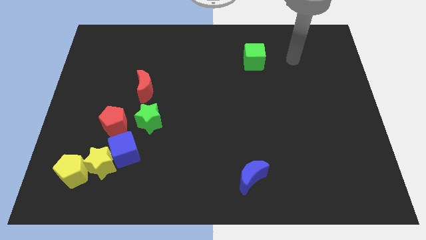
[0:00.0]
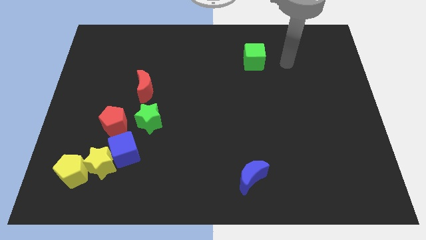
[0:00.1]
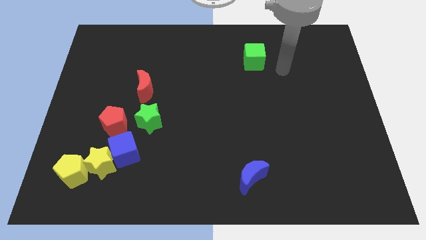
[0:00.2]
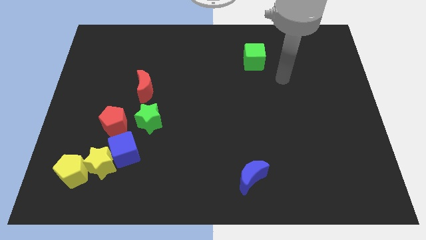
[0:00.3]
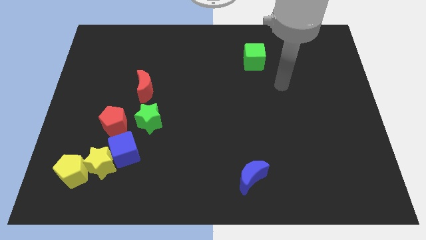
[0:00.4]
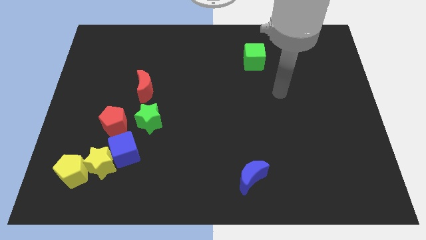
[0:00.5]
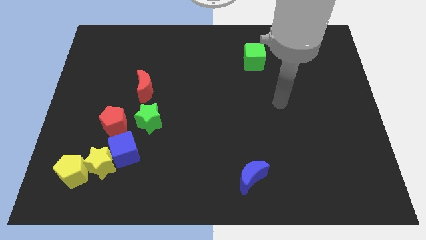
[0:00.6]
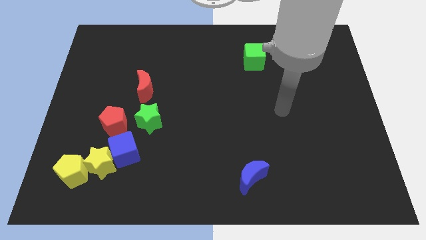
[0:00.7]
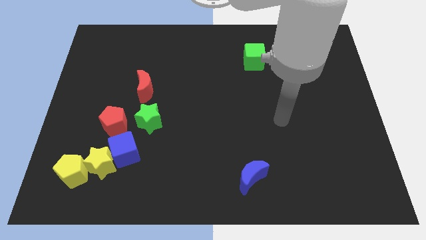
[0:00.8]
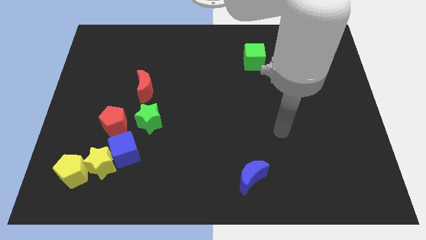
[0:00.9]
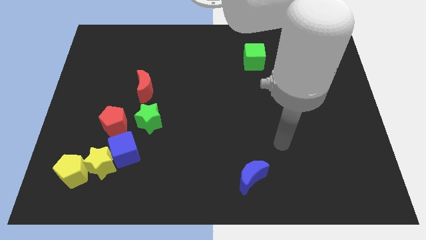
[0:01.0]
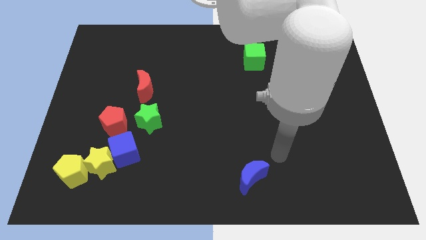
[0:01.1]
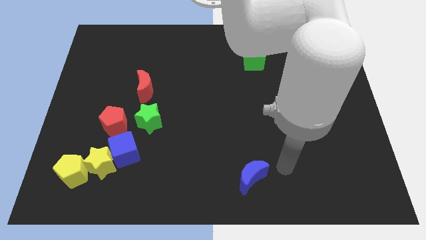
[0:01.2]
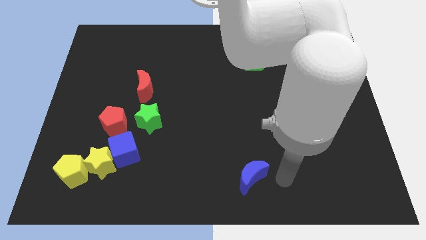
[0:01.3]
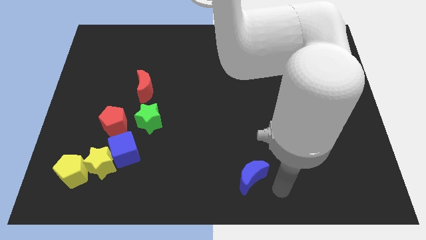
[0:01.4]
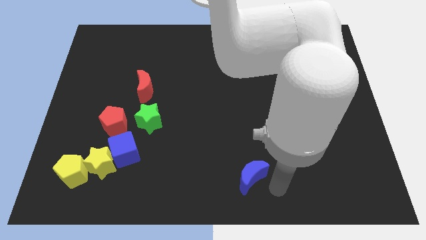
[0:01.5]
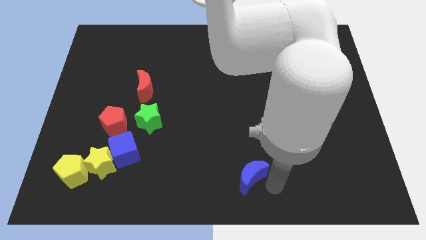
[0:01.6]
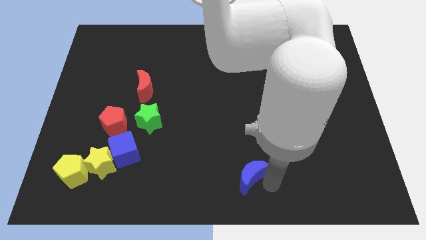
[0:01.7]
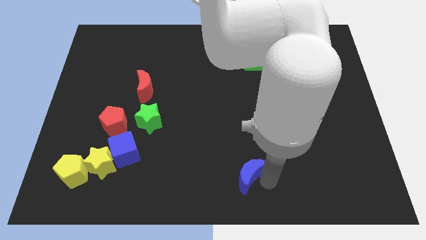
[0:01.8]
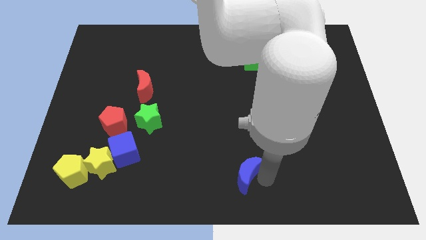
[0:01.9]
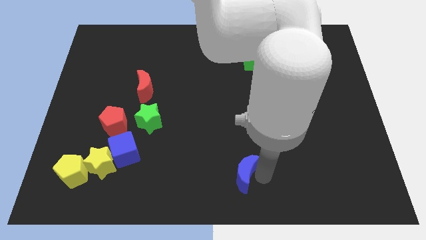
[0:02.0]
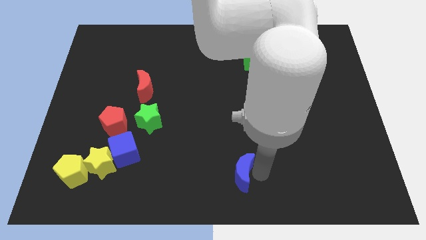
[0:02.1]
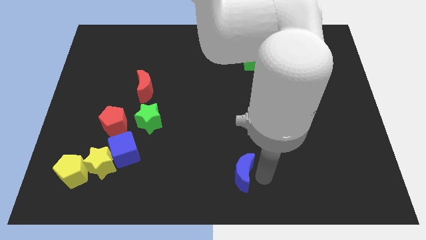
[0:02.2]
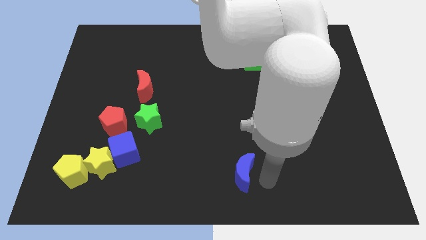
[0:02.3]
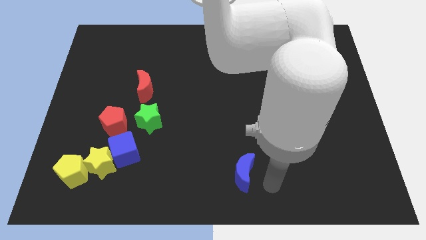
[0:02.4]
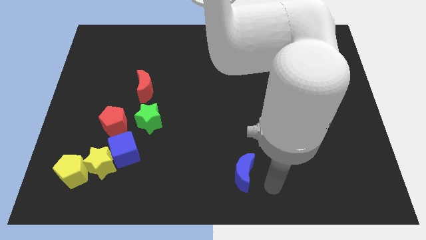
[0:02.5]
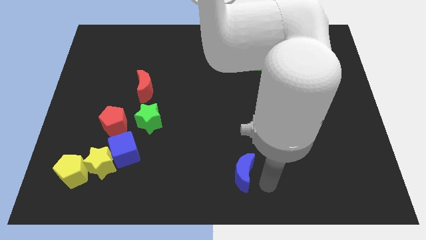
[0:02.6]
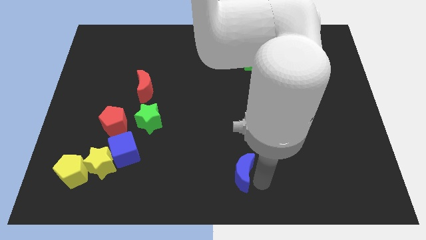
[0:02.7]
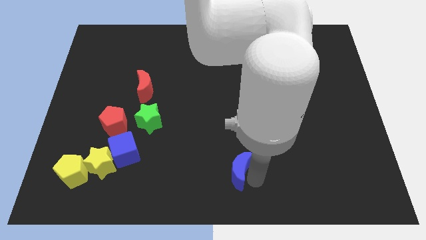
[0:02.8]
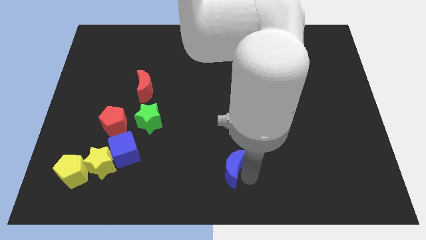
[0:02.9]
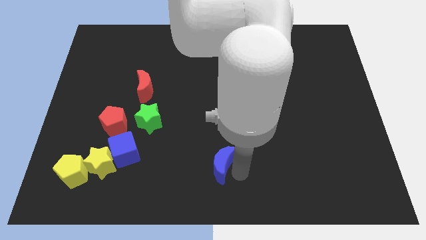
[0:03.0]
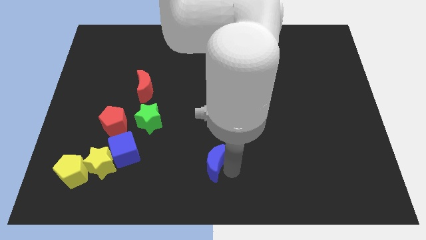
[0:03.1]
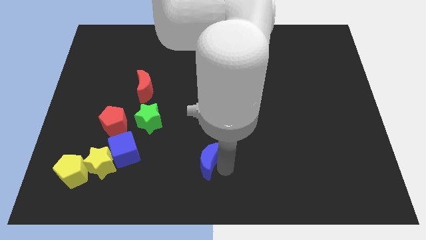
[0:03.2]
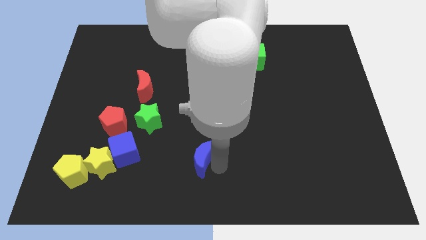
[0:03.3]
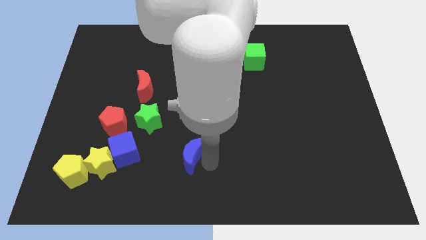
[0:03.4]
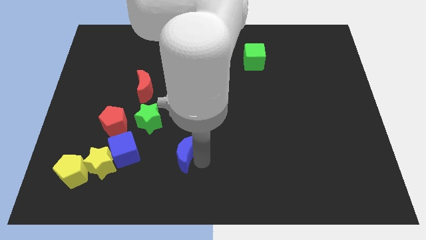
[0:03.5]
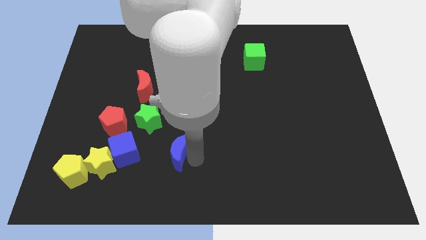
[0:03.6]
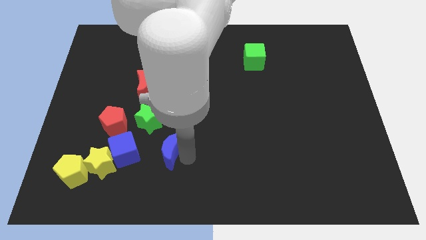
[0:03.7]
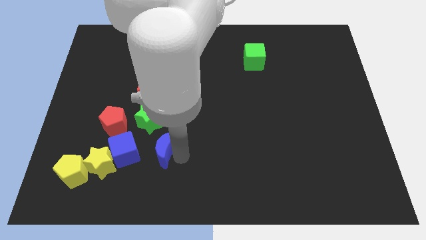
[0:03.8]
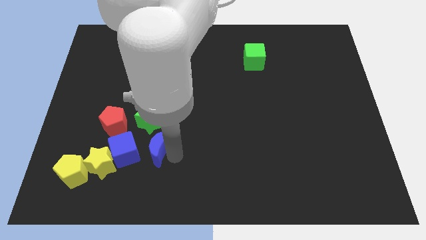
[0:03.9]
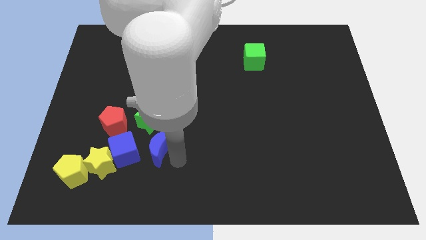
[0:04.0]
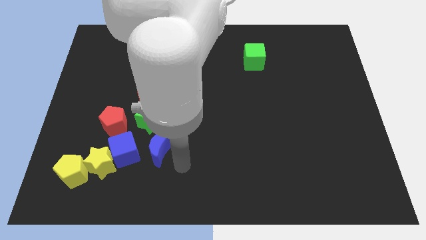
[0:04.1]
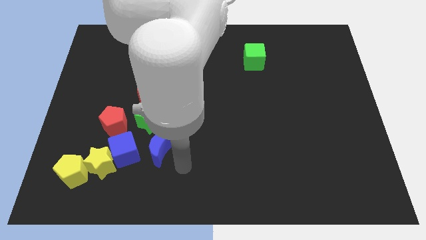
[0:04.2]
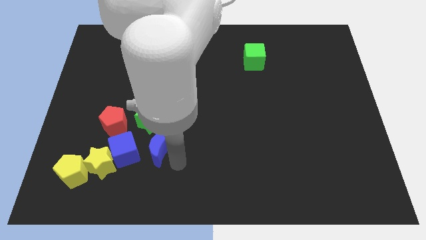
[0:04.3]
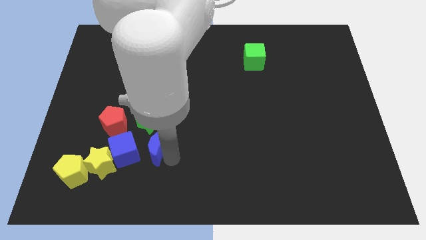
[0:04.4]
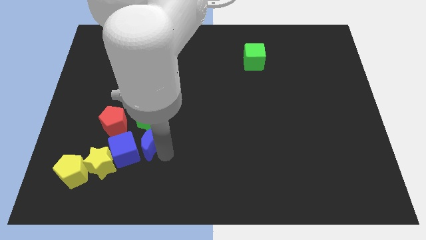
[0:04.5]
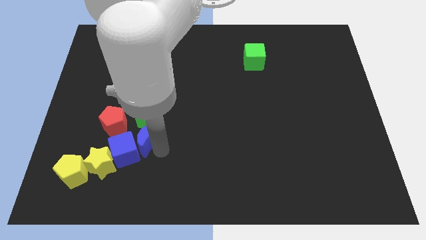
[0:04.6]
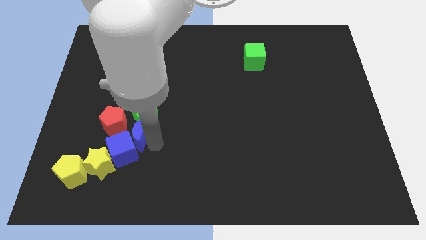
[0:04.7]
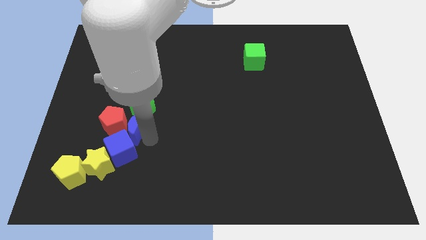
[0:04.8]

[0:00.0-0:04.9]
slide the blue moon towards the red pentagon

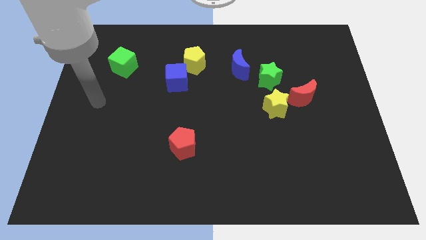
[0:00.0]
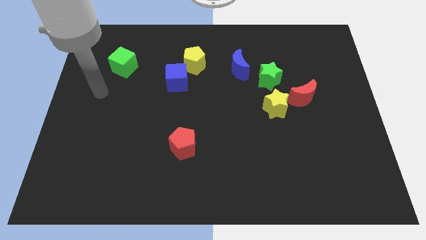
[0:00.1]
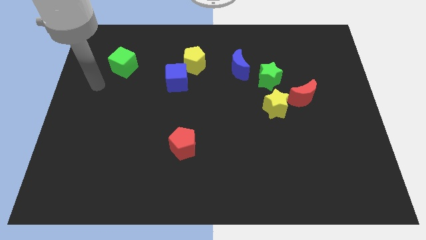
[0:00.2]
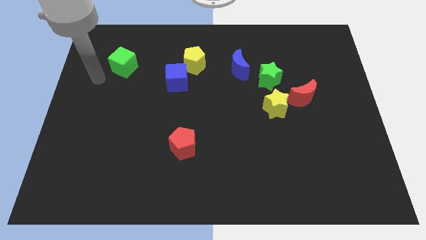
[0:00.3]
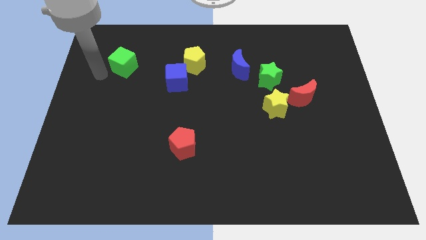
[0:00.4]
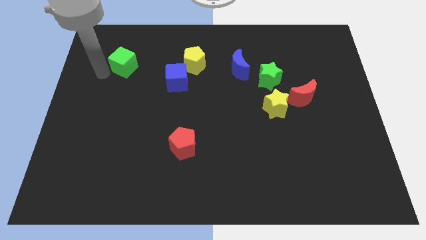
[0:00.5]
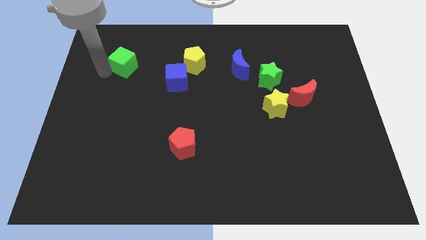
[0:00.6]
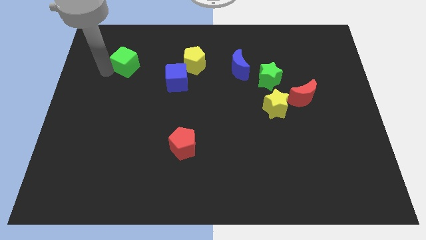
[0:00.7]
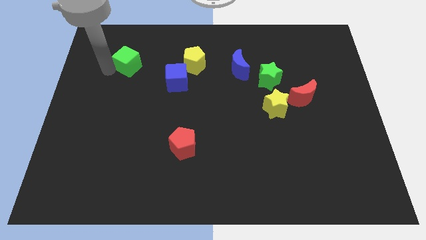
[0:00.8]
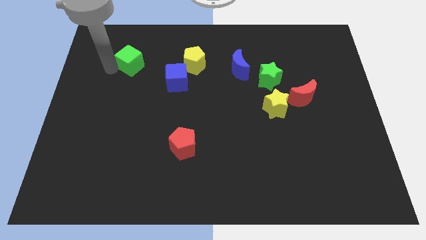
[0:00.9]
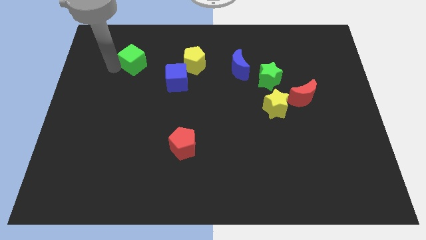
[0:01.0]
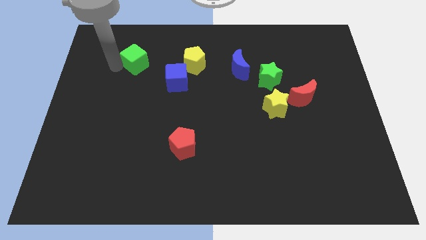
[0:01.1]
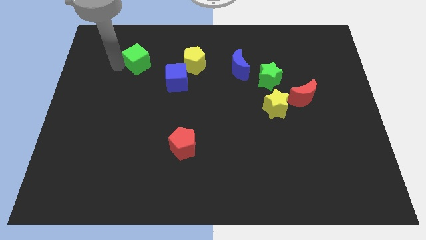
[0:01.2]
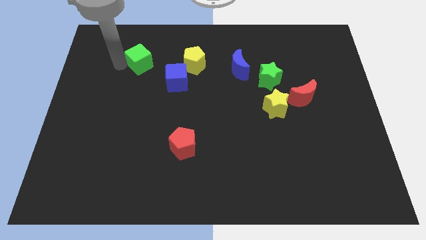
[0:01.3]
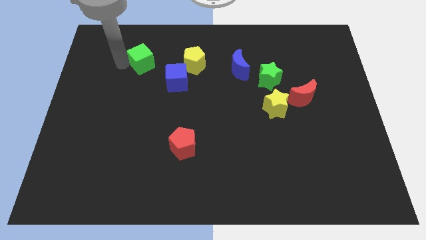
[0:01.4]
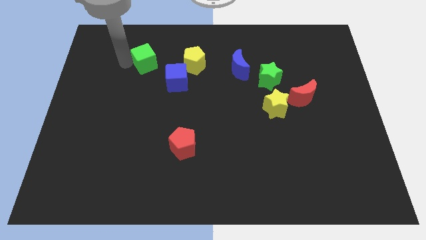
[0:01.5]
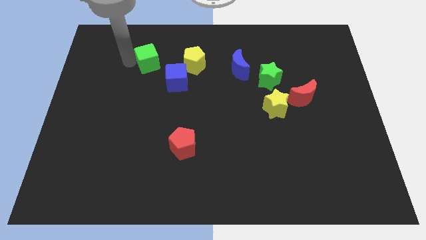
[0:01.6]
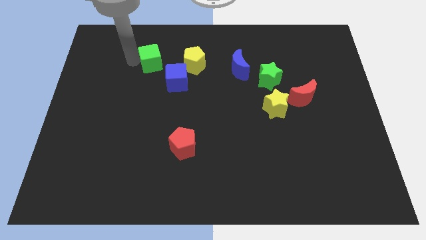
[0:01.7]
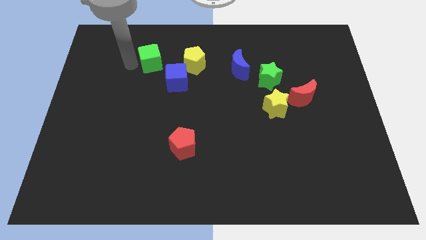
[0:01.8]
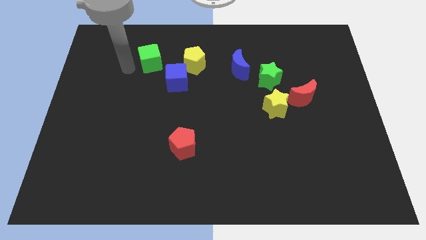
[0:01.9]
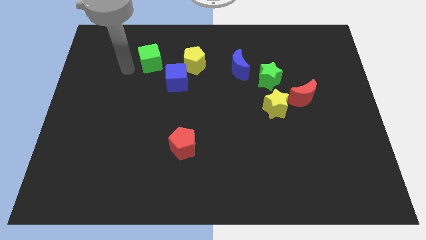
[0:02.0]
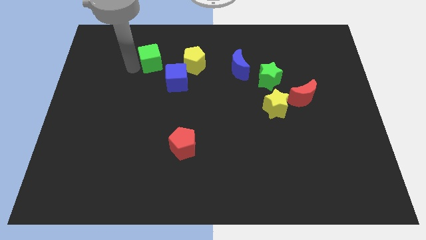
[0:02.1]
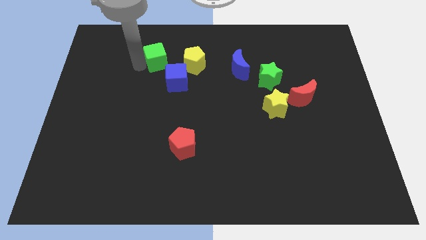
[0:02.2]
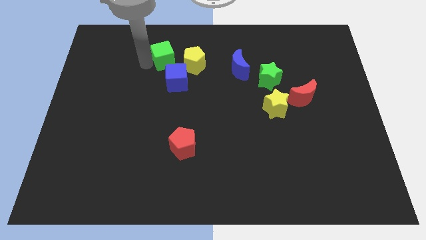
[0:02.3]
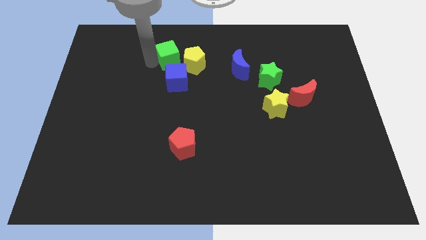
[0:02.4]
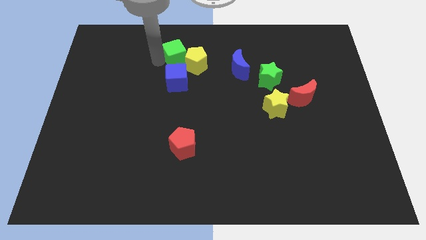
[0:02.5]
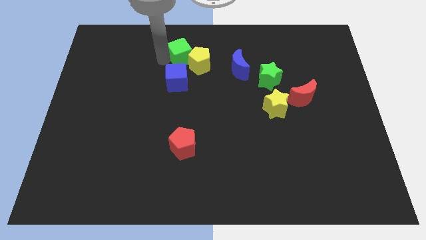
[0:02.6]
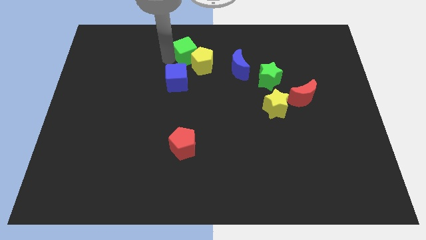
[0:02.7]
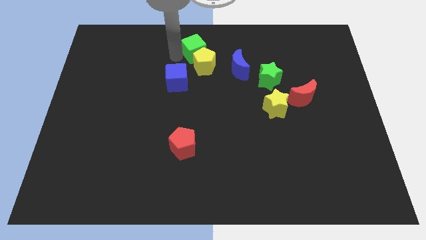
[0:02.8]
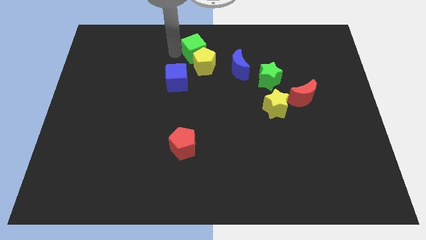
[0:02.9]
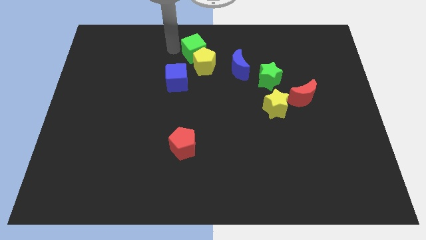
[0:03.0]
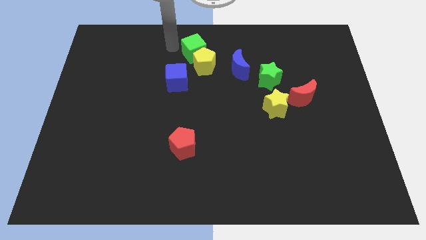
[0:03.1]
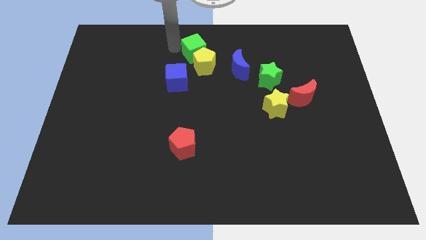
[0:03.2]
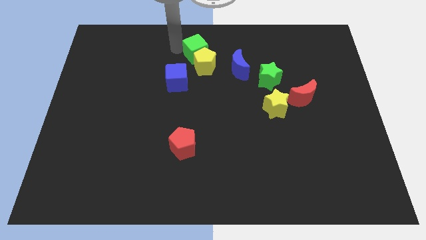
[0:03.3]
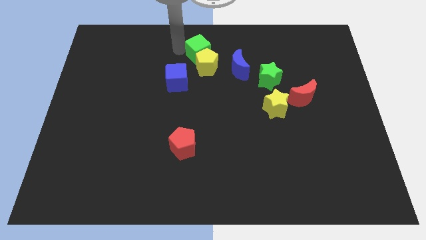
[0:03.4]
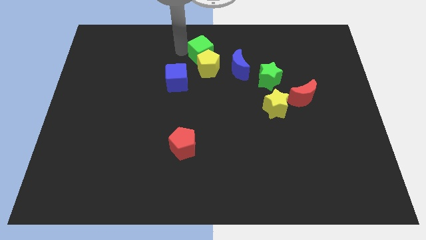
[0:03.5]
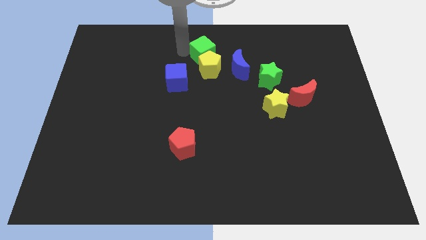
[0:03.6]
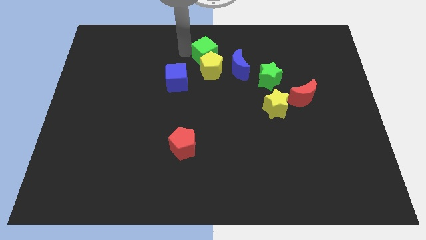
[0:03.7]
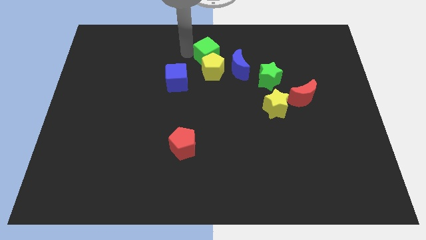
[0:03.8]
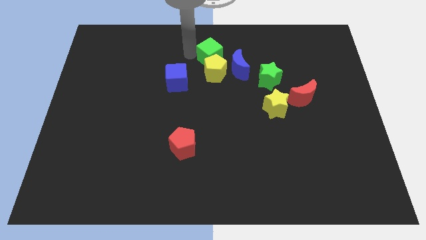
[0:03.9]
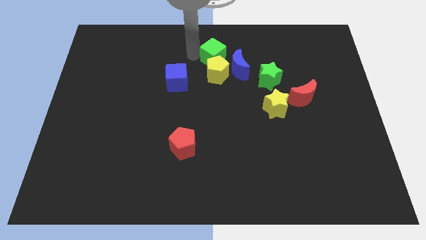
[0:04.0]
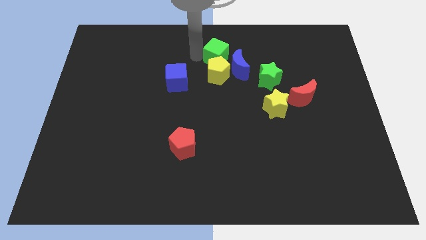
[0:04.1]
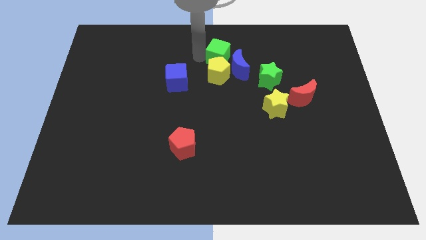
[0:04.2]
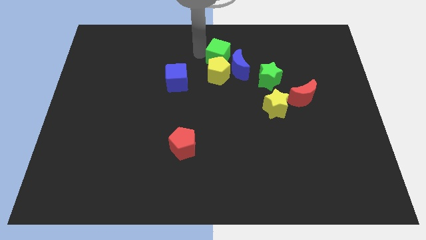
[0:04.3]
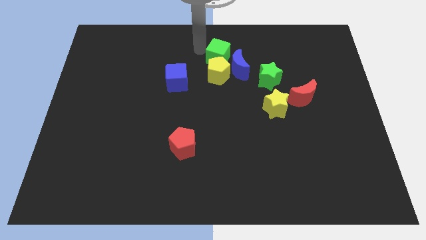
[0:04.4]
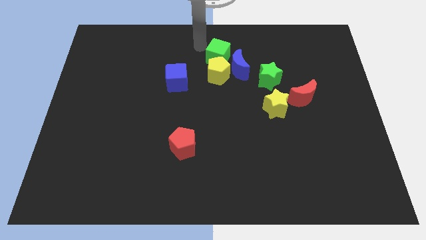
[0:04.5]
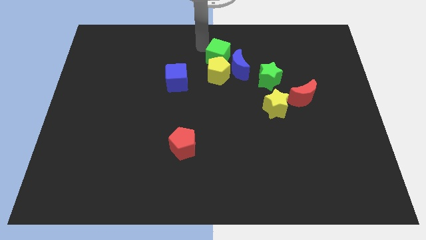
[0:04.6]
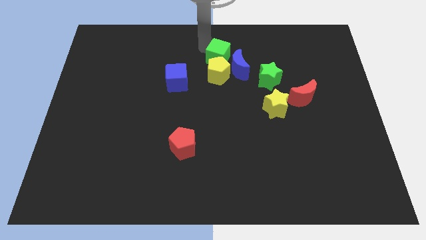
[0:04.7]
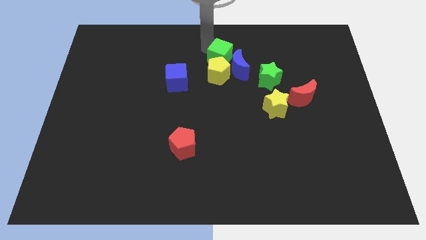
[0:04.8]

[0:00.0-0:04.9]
move the green cube to the blue moon
